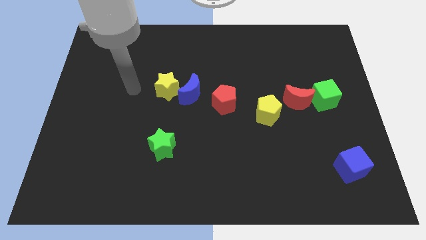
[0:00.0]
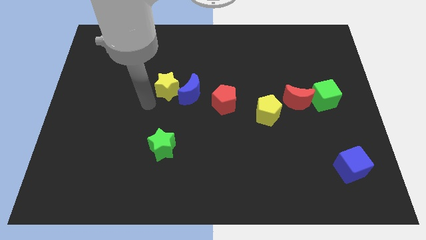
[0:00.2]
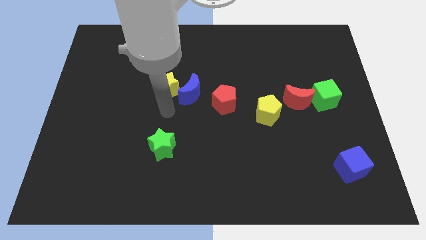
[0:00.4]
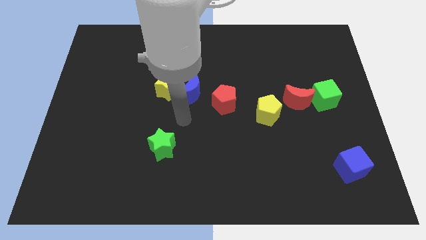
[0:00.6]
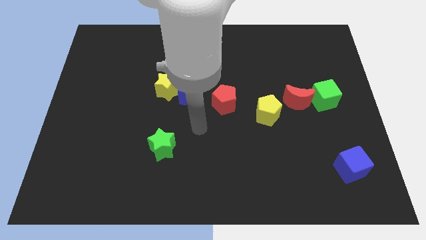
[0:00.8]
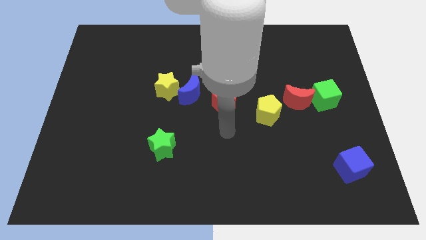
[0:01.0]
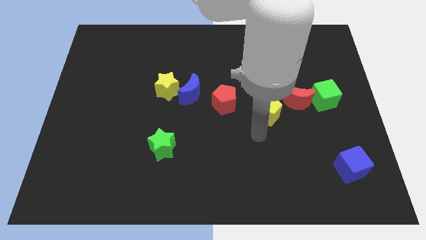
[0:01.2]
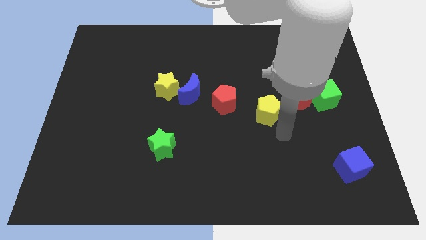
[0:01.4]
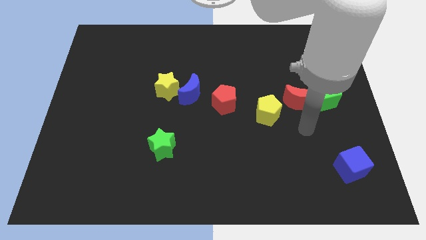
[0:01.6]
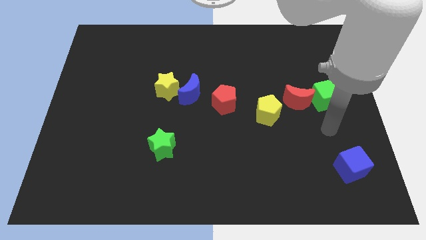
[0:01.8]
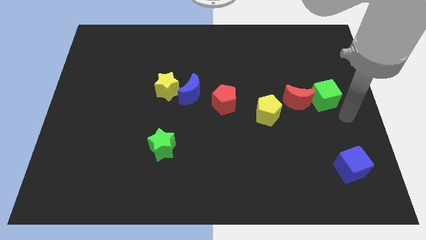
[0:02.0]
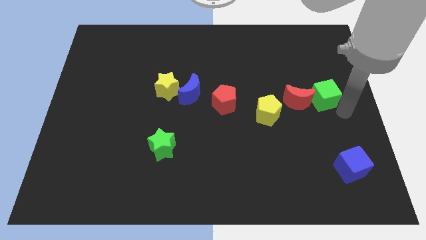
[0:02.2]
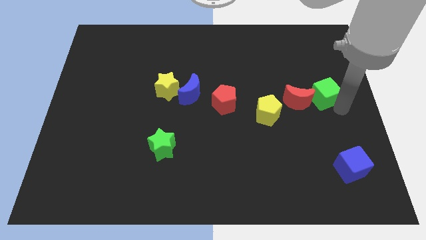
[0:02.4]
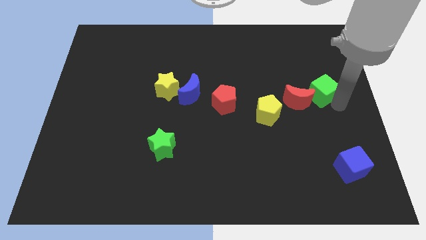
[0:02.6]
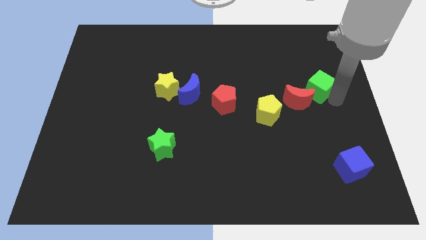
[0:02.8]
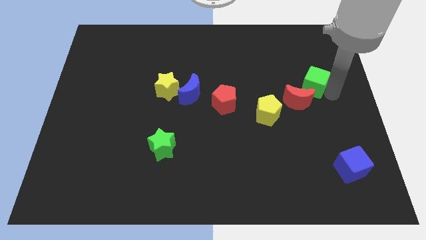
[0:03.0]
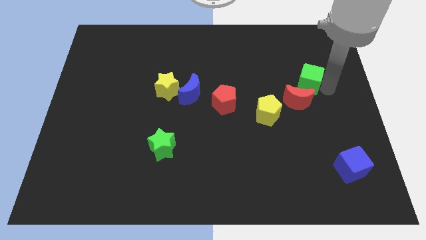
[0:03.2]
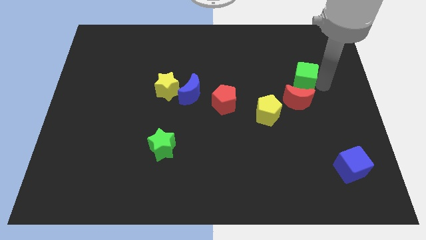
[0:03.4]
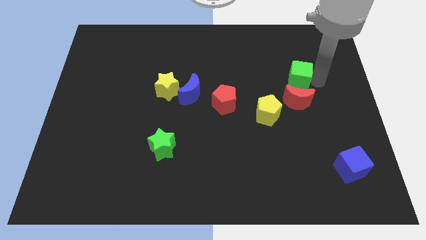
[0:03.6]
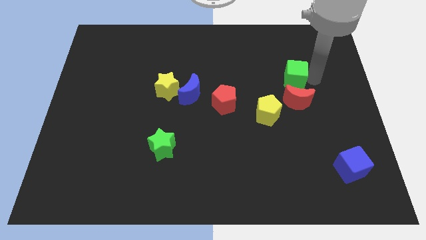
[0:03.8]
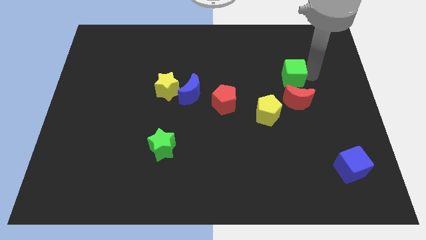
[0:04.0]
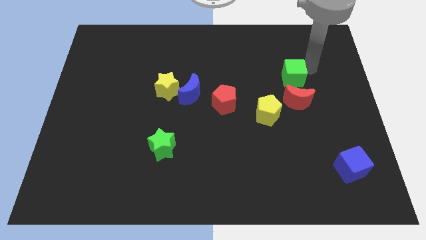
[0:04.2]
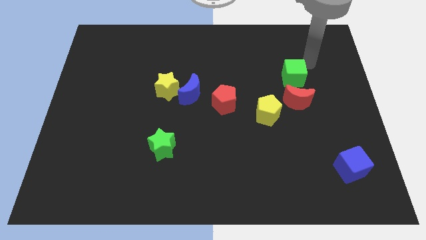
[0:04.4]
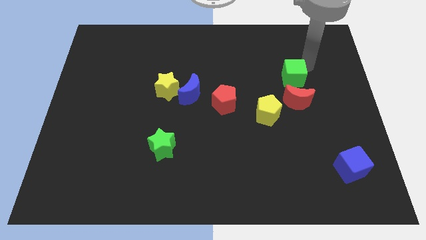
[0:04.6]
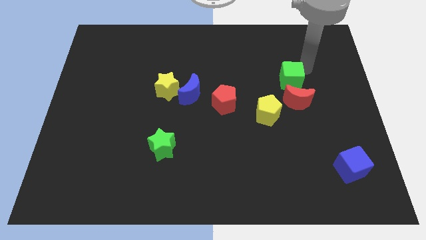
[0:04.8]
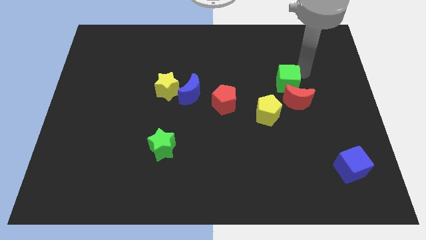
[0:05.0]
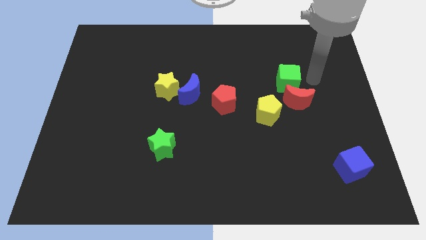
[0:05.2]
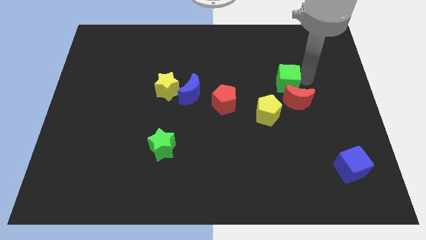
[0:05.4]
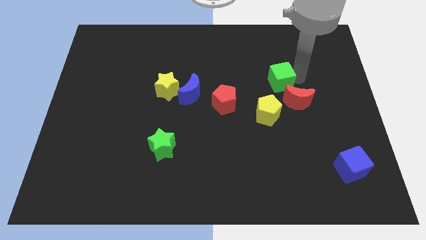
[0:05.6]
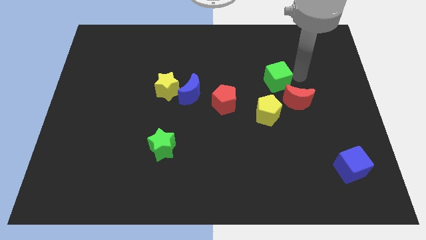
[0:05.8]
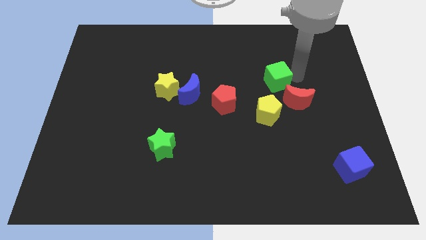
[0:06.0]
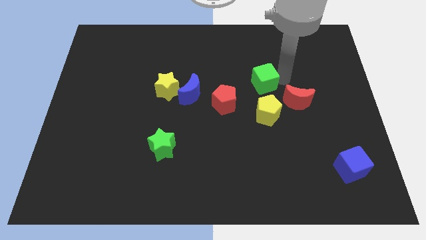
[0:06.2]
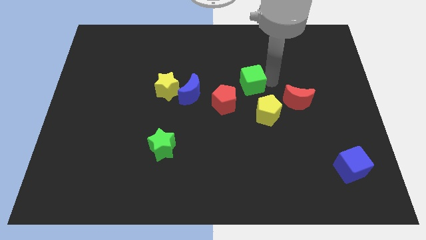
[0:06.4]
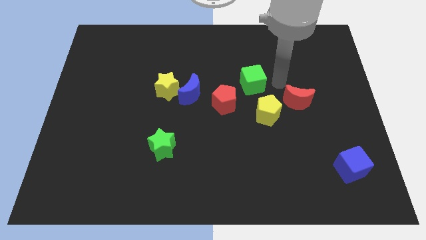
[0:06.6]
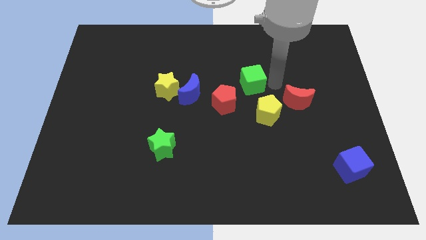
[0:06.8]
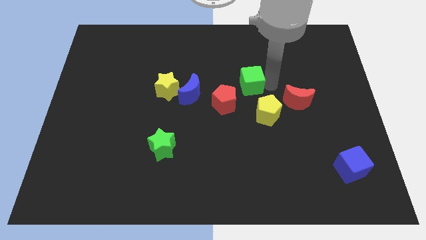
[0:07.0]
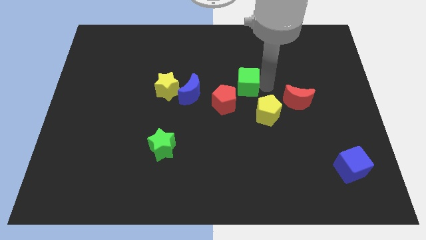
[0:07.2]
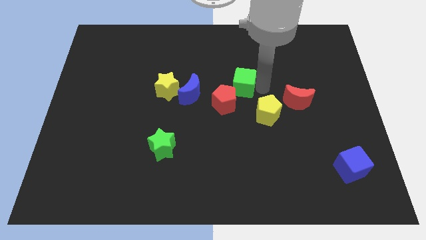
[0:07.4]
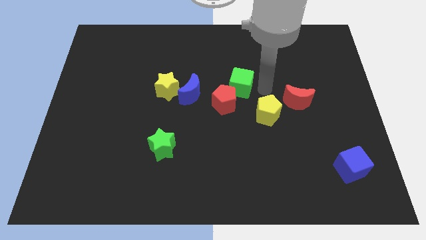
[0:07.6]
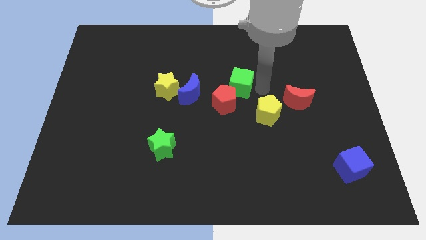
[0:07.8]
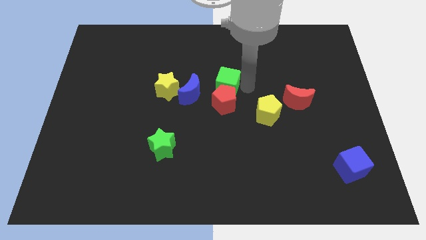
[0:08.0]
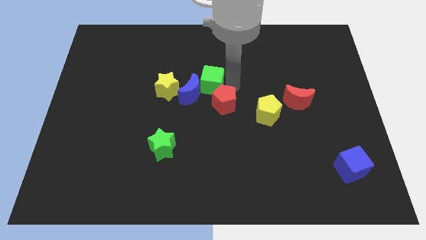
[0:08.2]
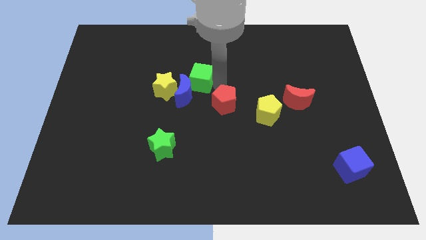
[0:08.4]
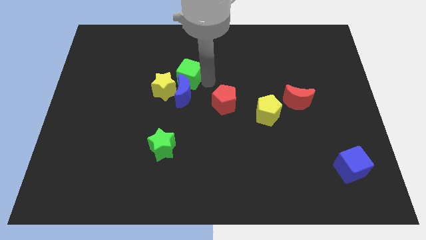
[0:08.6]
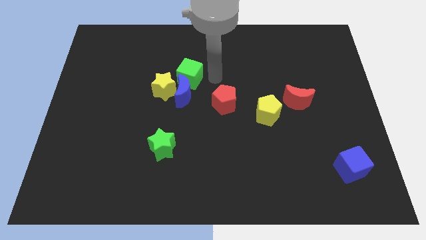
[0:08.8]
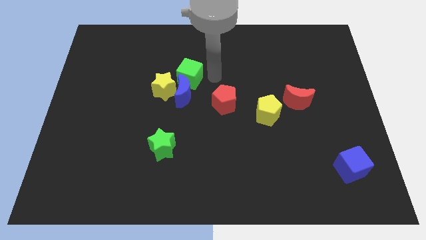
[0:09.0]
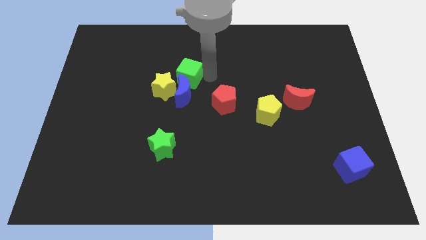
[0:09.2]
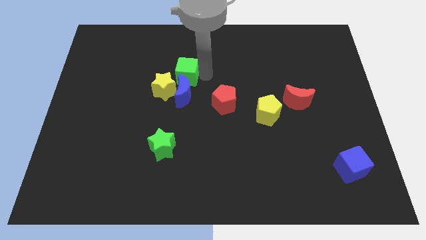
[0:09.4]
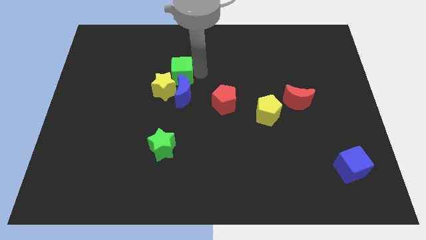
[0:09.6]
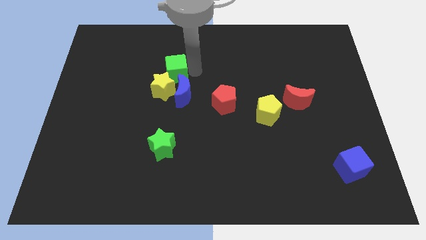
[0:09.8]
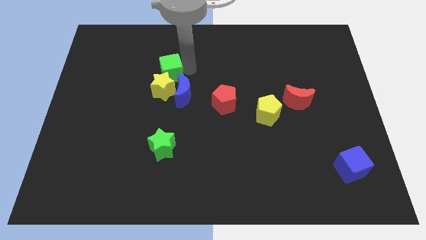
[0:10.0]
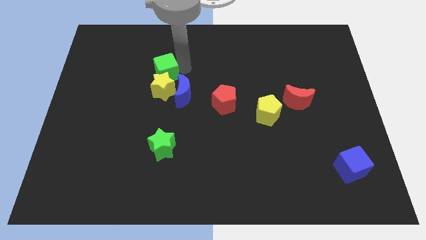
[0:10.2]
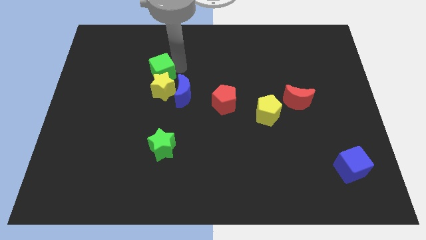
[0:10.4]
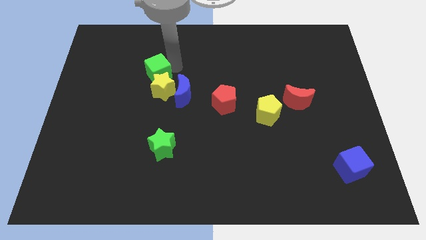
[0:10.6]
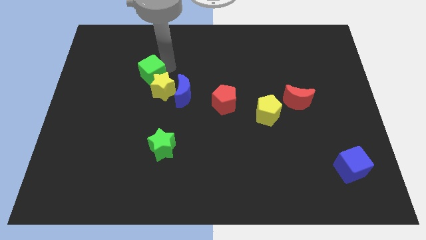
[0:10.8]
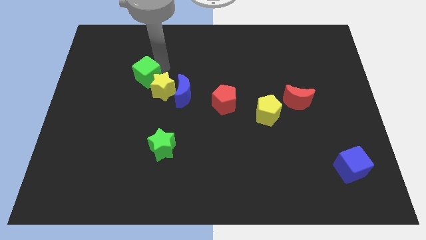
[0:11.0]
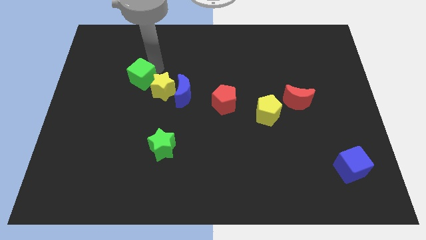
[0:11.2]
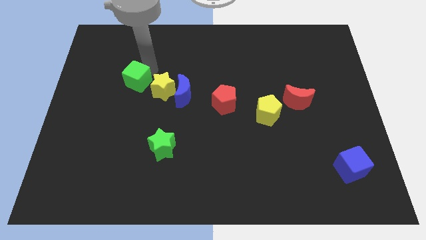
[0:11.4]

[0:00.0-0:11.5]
slide the green cube just left of the blue moon

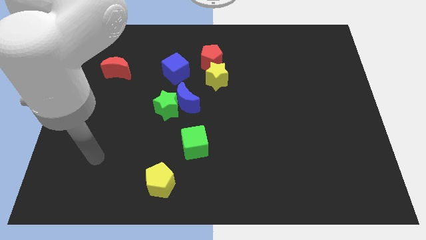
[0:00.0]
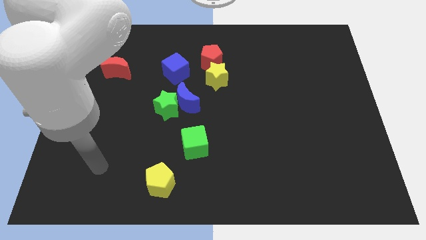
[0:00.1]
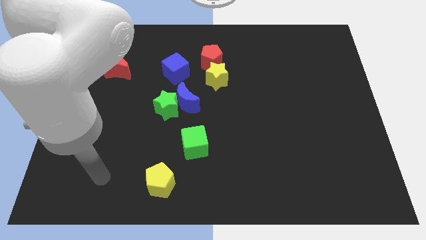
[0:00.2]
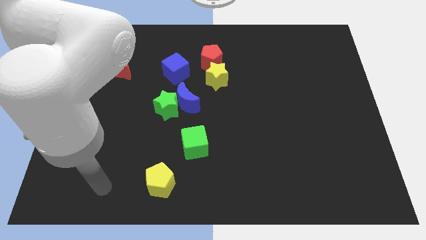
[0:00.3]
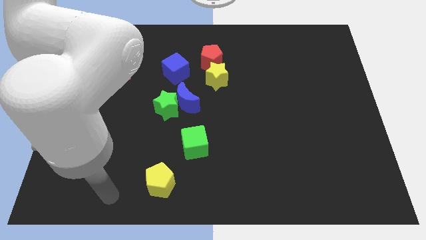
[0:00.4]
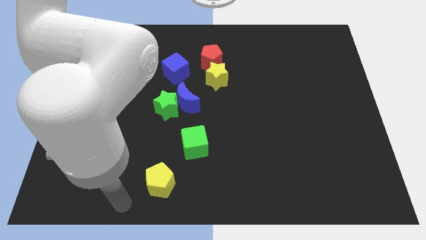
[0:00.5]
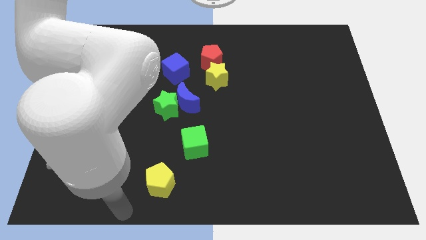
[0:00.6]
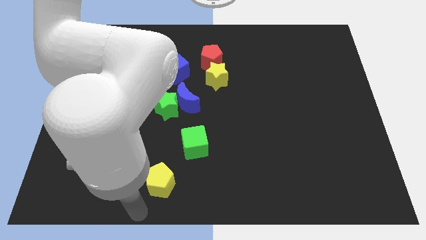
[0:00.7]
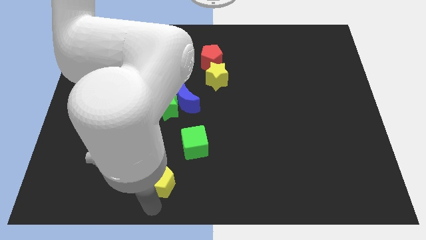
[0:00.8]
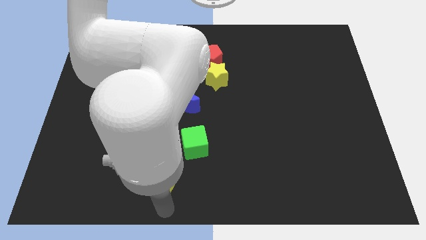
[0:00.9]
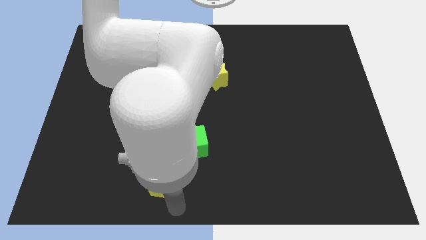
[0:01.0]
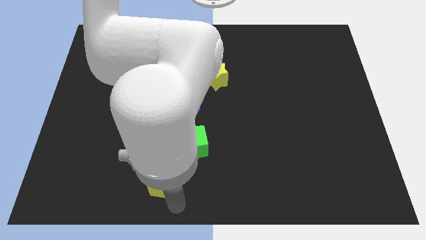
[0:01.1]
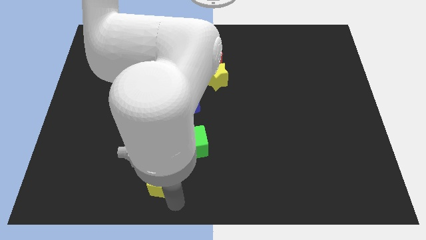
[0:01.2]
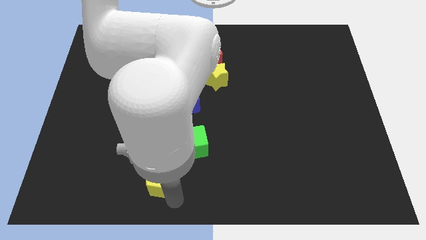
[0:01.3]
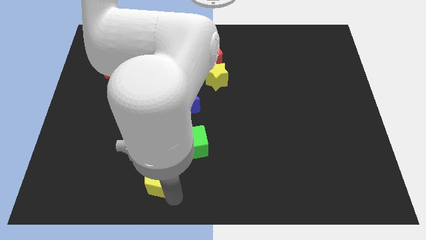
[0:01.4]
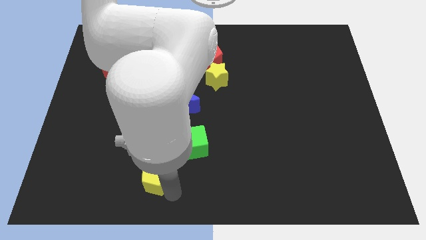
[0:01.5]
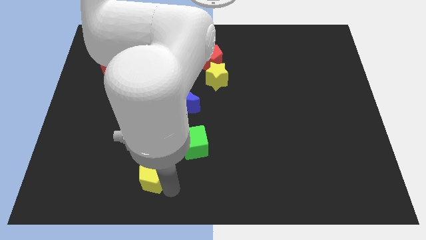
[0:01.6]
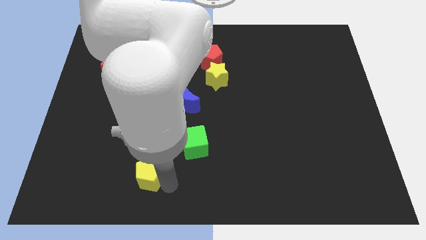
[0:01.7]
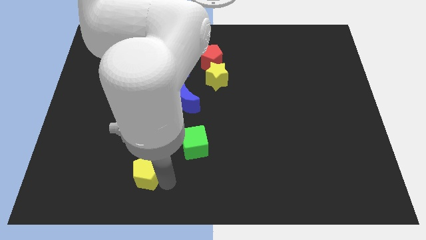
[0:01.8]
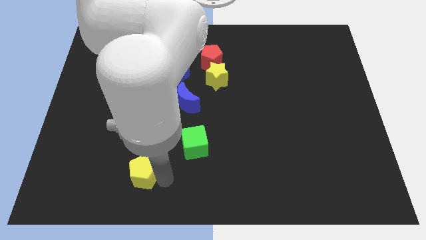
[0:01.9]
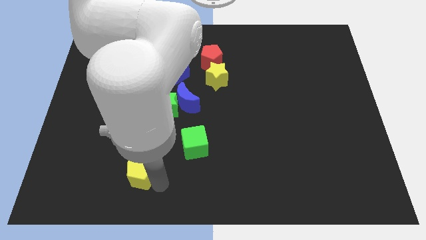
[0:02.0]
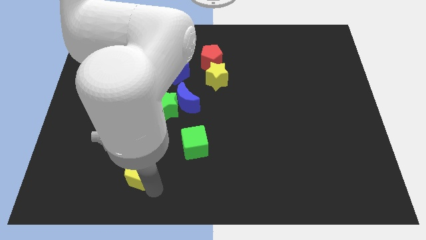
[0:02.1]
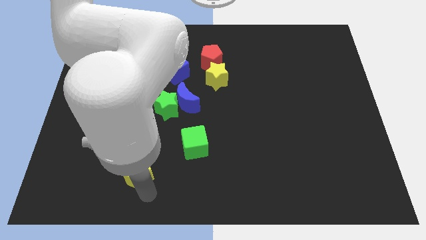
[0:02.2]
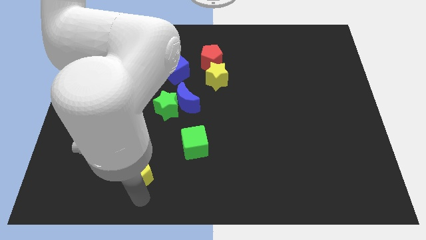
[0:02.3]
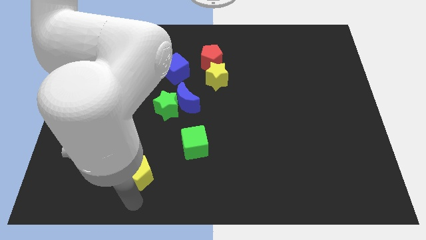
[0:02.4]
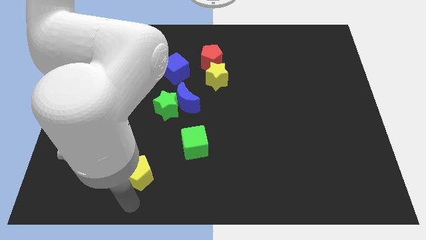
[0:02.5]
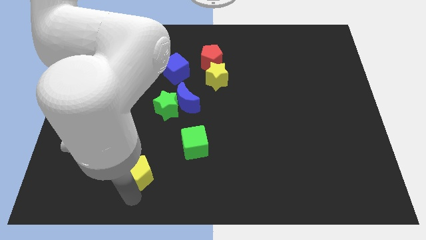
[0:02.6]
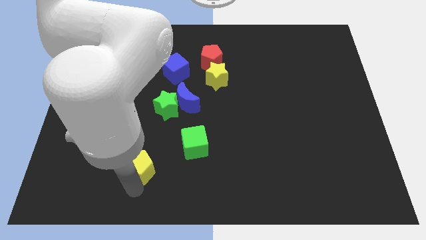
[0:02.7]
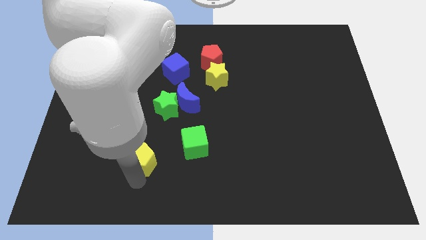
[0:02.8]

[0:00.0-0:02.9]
push the yellow pentagon just left of the green cube
